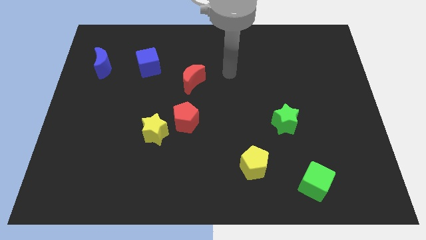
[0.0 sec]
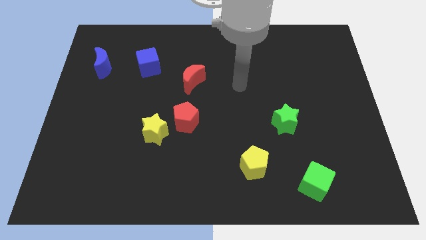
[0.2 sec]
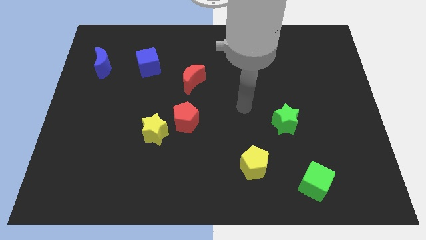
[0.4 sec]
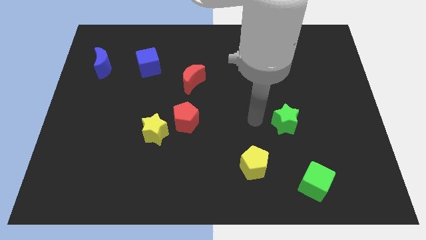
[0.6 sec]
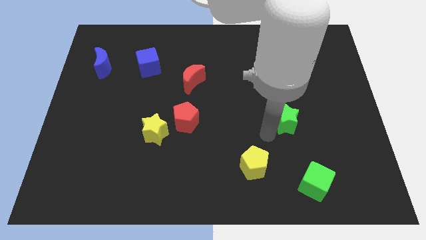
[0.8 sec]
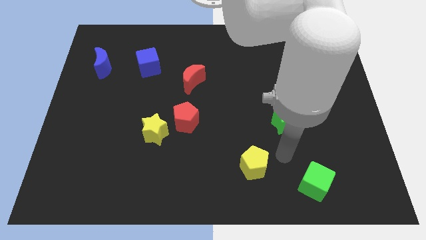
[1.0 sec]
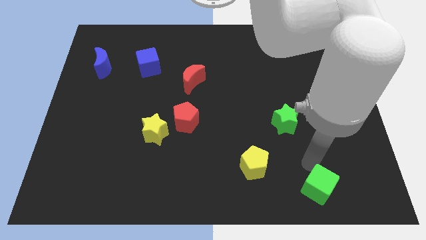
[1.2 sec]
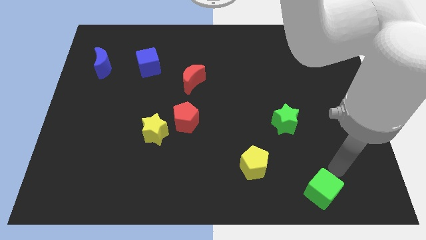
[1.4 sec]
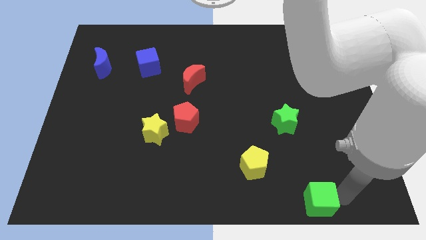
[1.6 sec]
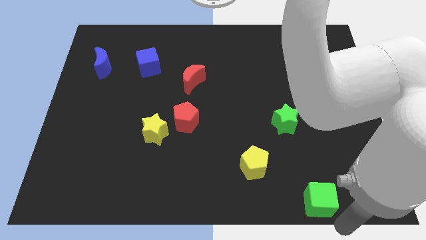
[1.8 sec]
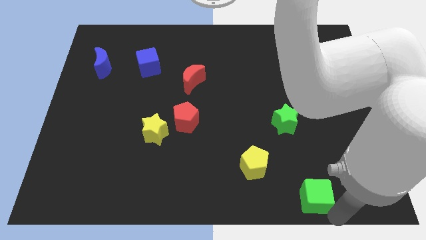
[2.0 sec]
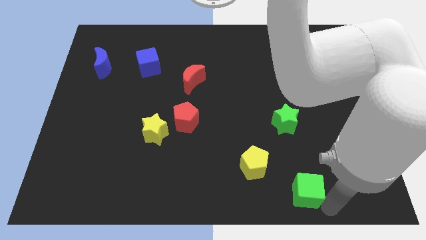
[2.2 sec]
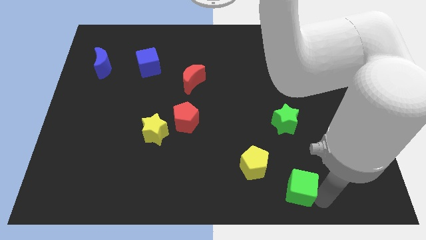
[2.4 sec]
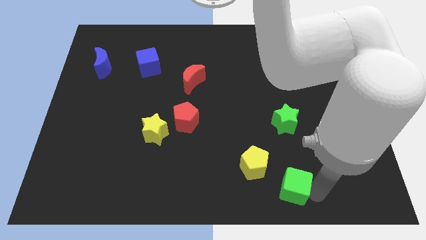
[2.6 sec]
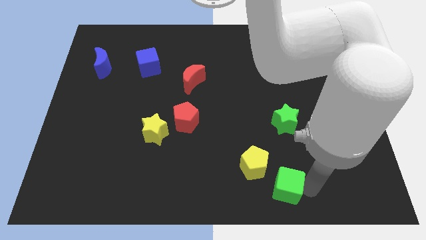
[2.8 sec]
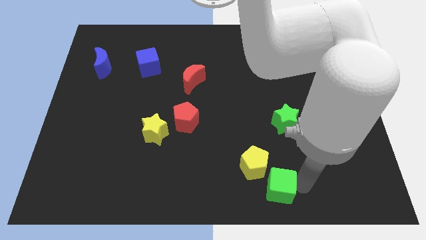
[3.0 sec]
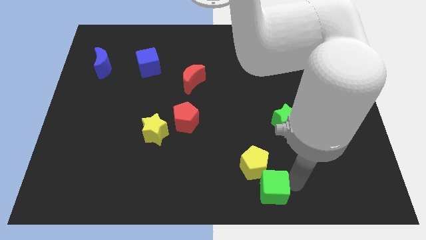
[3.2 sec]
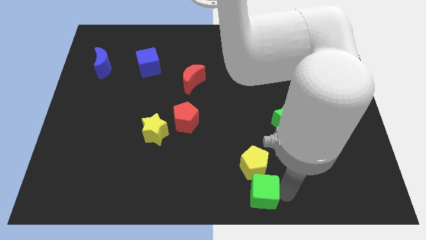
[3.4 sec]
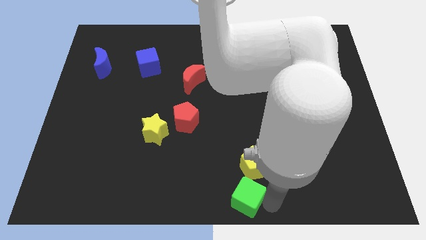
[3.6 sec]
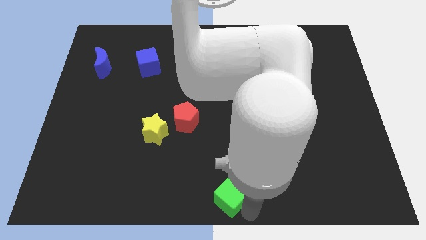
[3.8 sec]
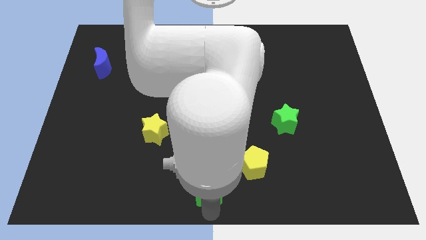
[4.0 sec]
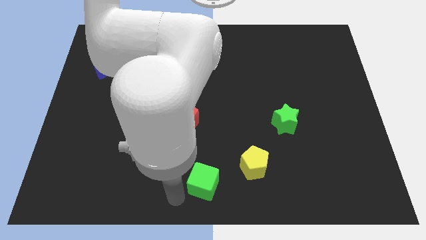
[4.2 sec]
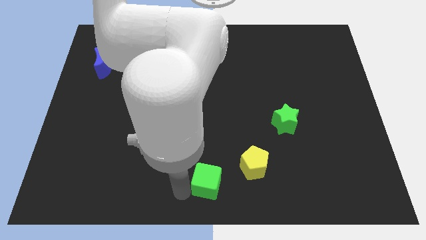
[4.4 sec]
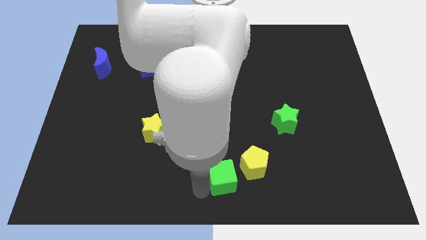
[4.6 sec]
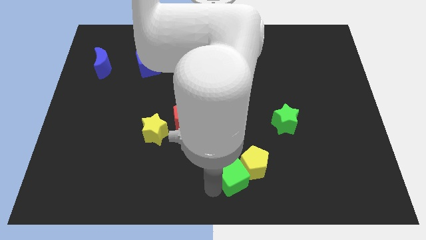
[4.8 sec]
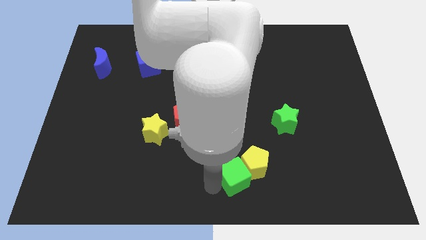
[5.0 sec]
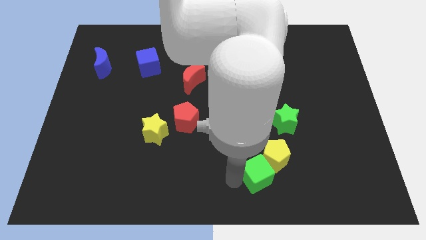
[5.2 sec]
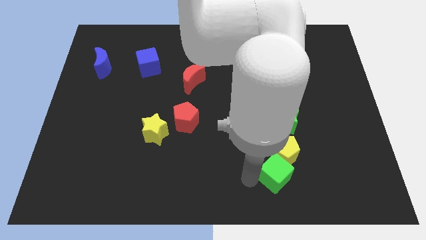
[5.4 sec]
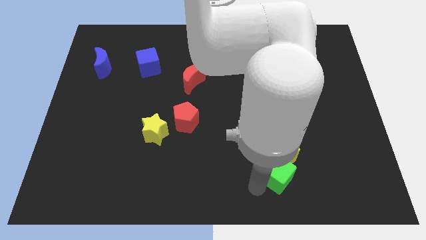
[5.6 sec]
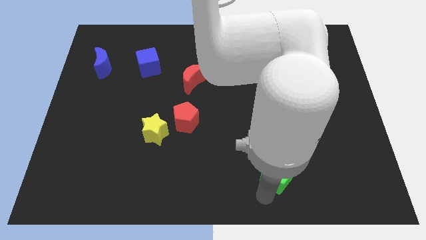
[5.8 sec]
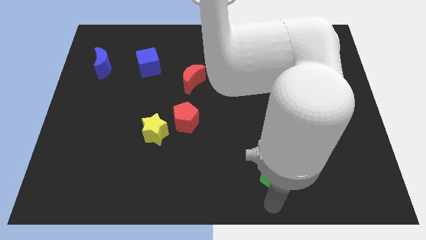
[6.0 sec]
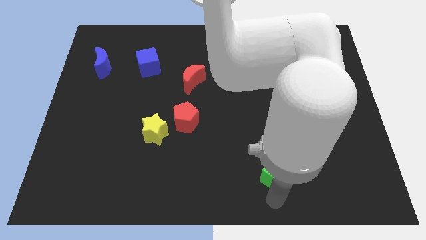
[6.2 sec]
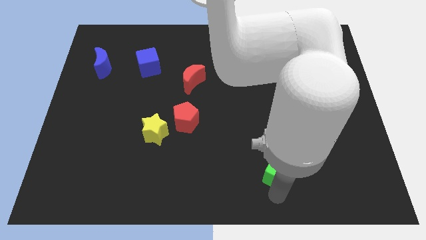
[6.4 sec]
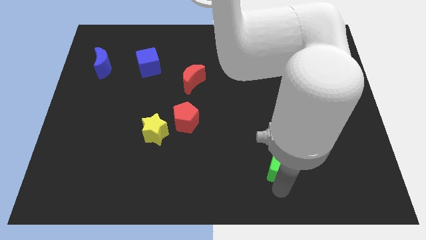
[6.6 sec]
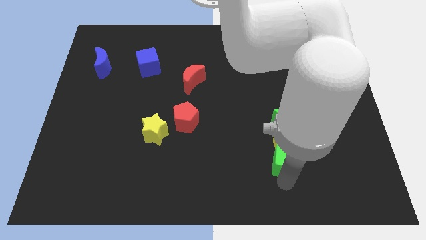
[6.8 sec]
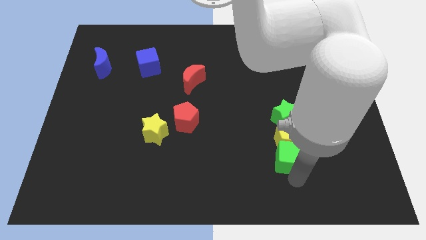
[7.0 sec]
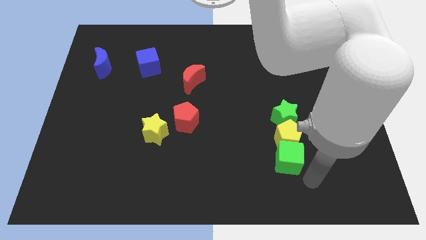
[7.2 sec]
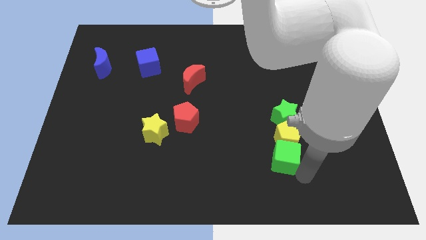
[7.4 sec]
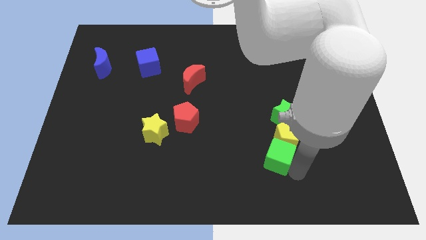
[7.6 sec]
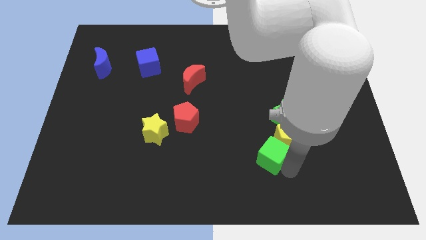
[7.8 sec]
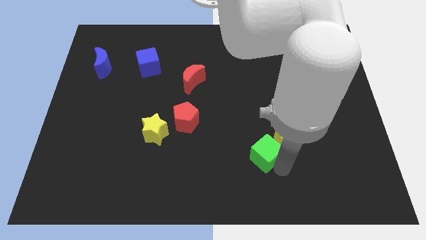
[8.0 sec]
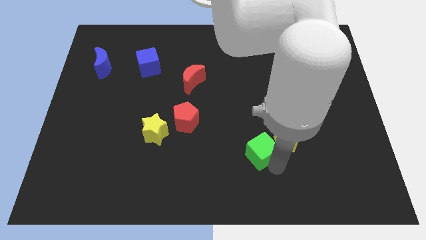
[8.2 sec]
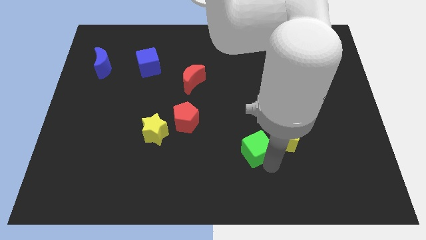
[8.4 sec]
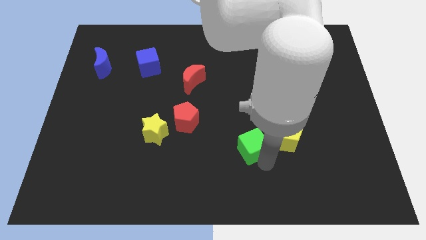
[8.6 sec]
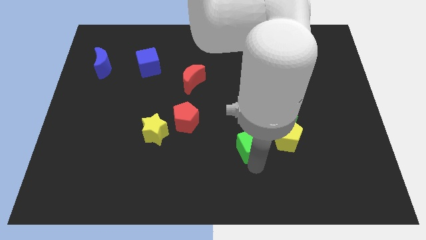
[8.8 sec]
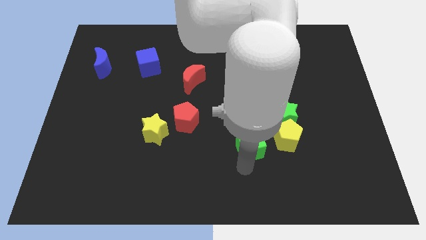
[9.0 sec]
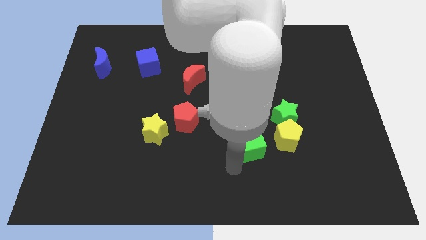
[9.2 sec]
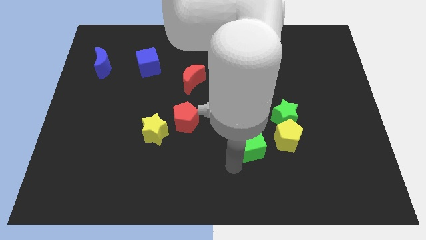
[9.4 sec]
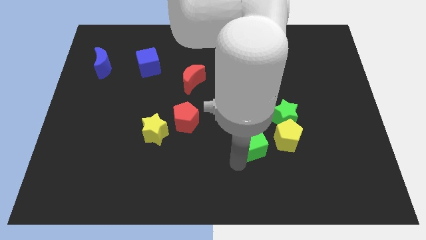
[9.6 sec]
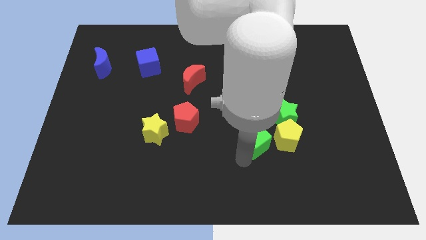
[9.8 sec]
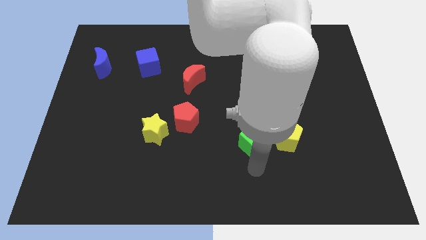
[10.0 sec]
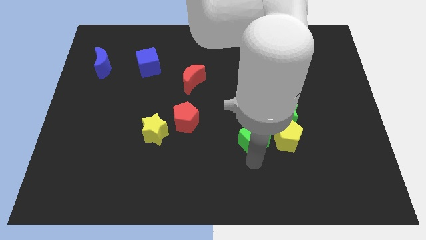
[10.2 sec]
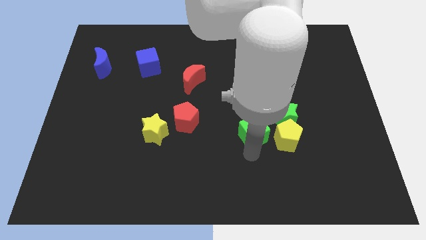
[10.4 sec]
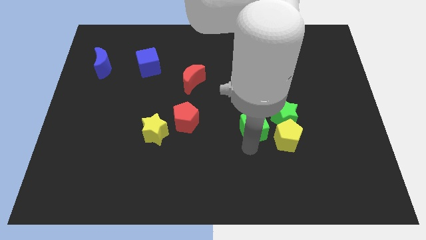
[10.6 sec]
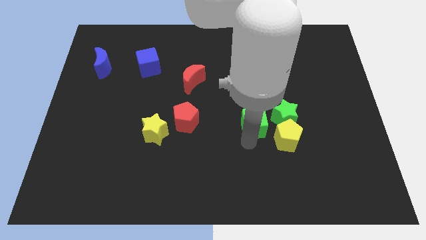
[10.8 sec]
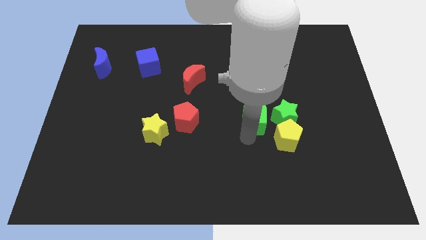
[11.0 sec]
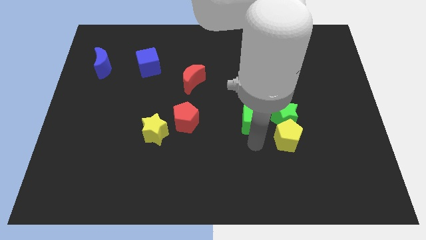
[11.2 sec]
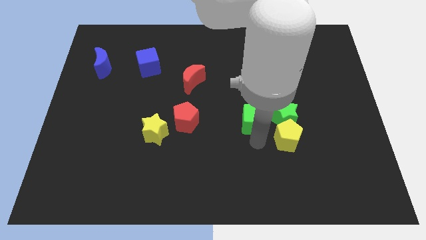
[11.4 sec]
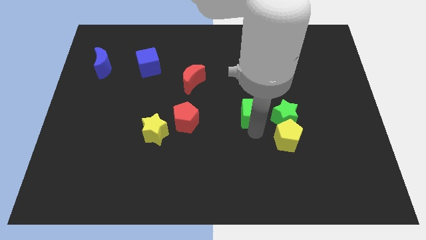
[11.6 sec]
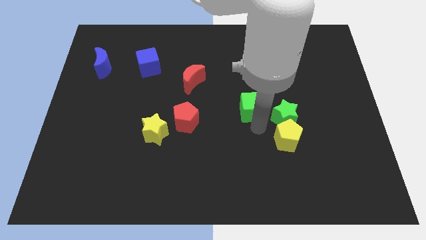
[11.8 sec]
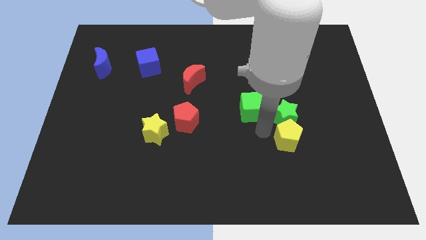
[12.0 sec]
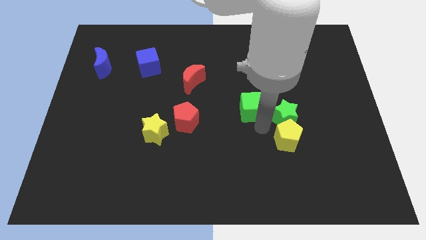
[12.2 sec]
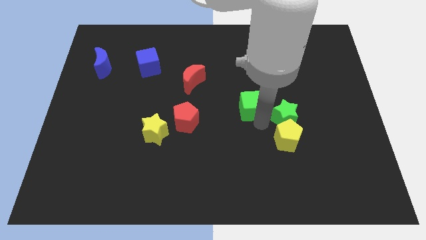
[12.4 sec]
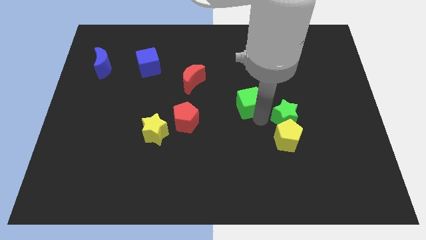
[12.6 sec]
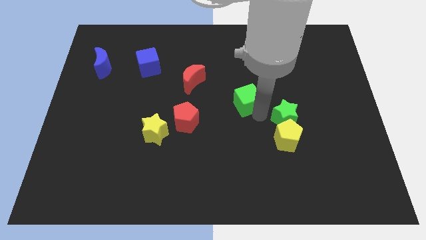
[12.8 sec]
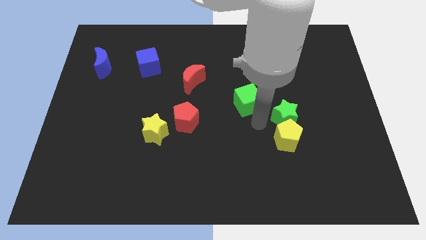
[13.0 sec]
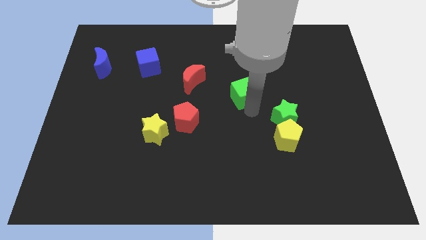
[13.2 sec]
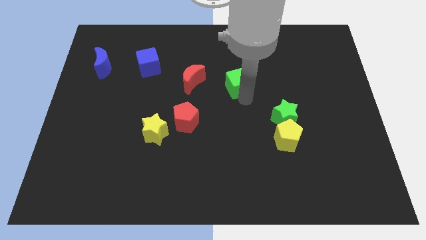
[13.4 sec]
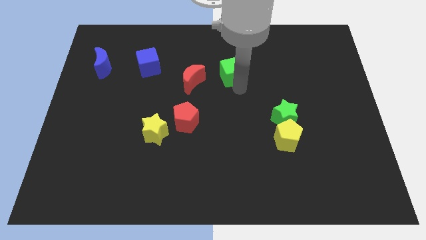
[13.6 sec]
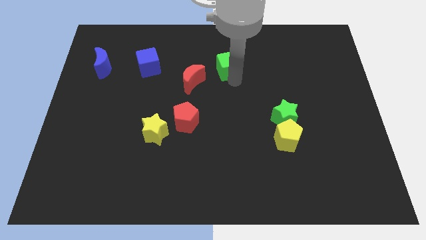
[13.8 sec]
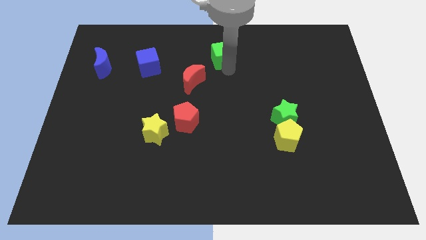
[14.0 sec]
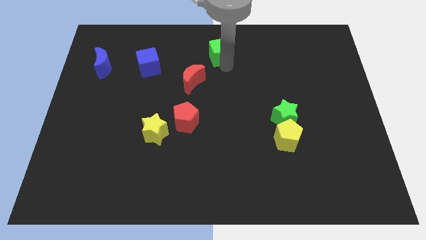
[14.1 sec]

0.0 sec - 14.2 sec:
push the green cube to the top
